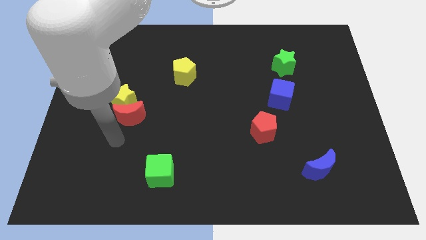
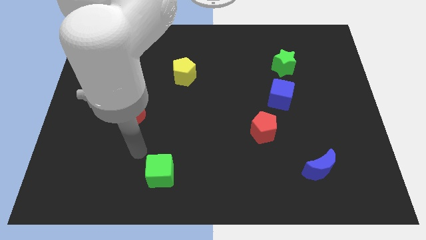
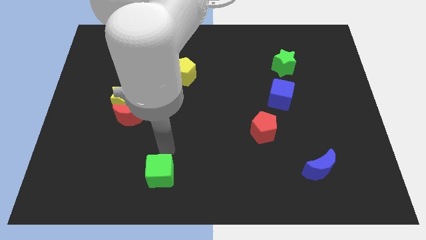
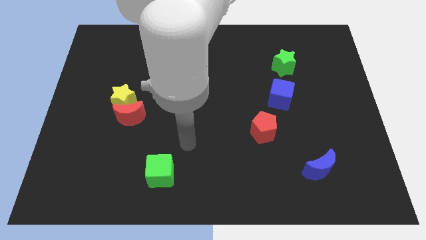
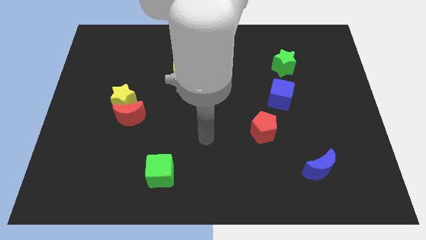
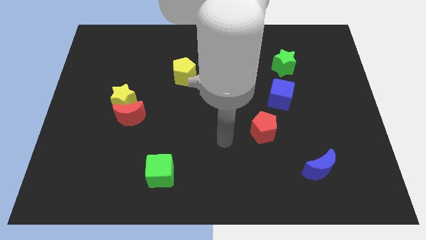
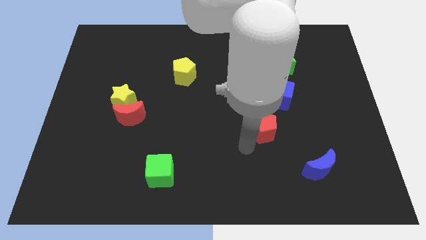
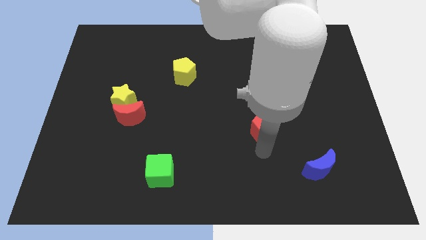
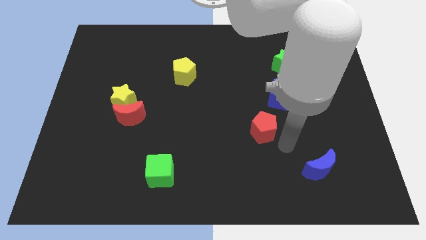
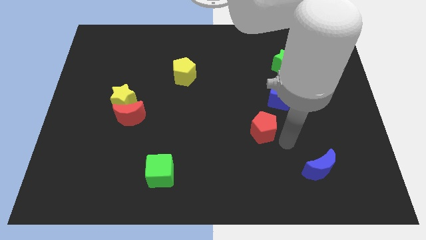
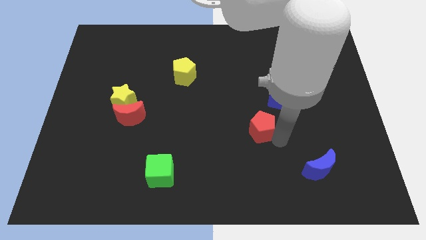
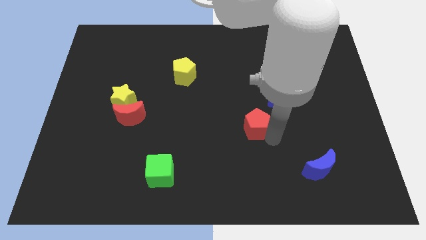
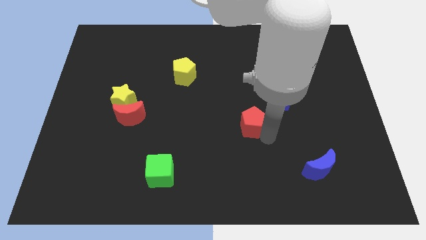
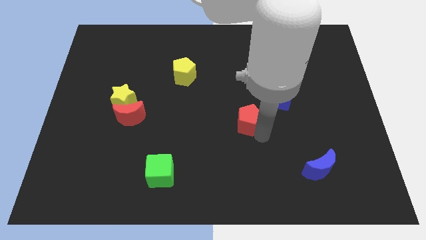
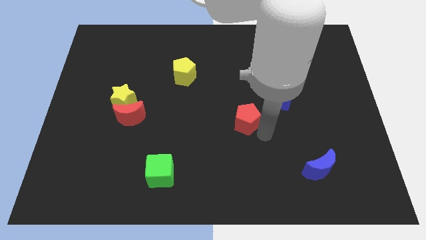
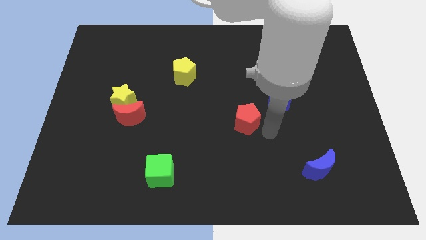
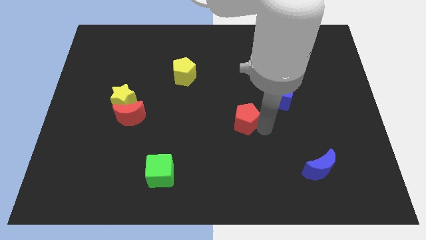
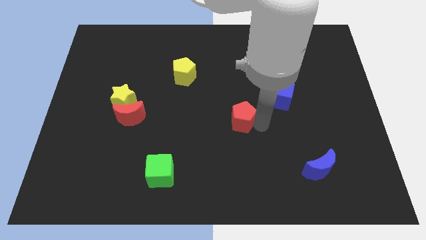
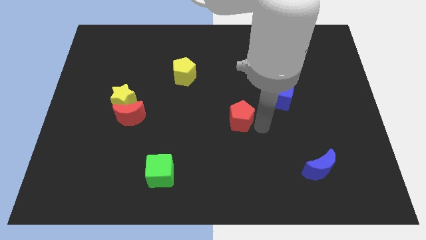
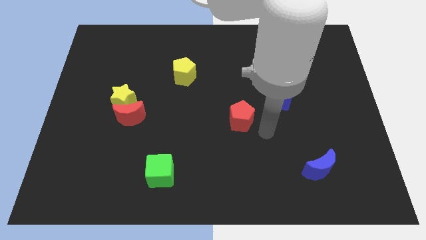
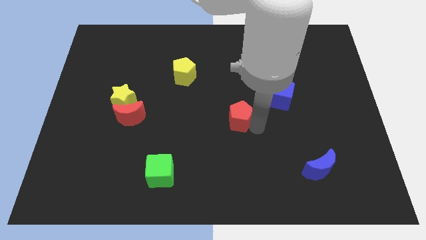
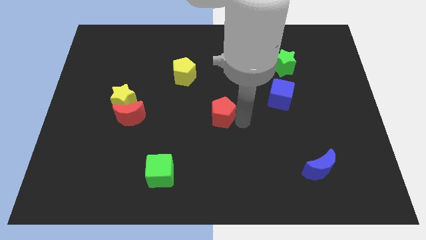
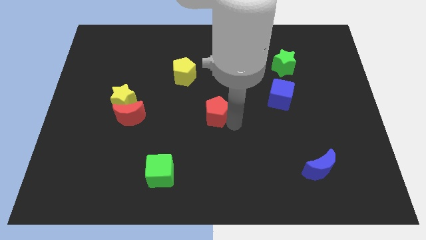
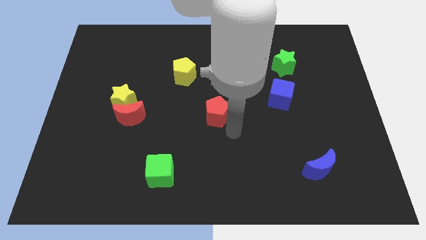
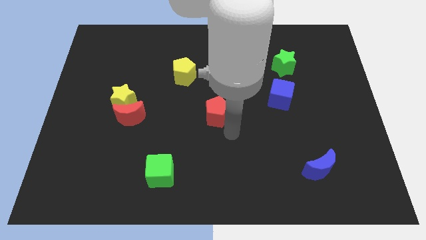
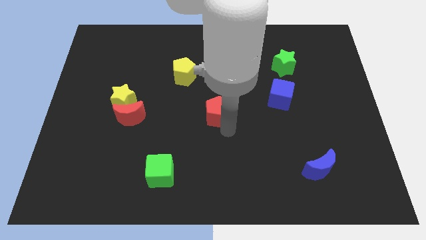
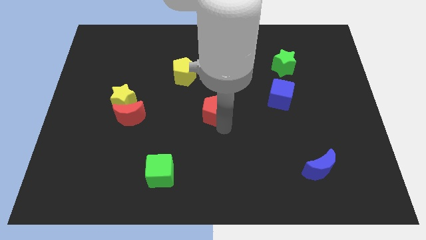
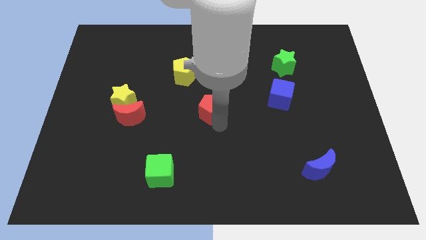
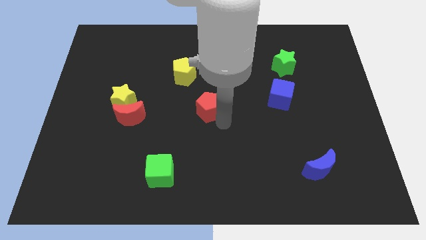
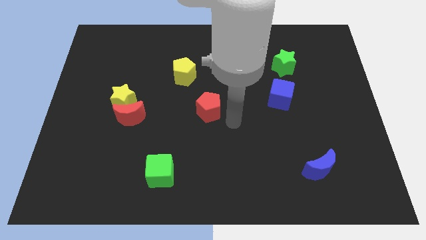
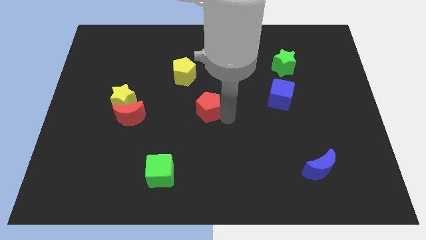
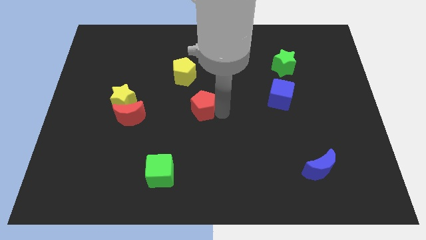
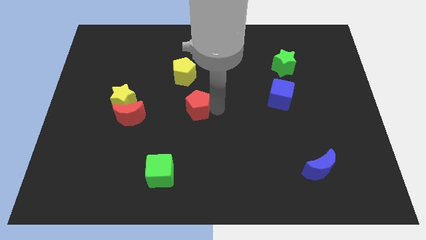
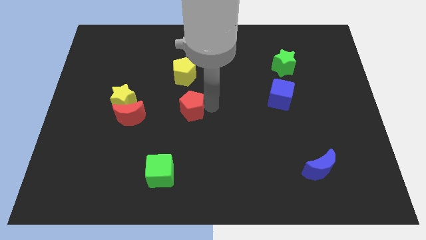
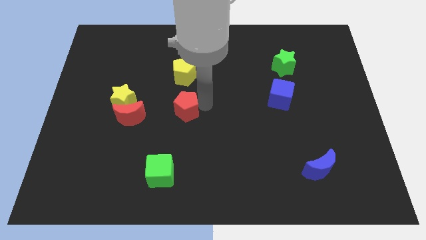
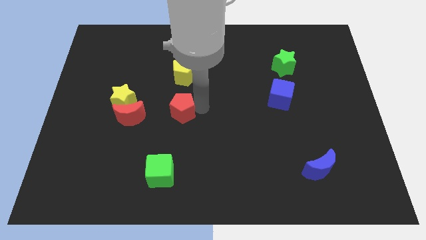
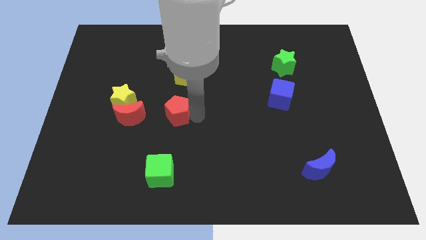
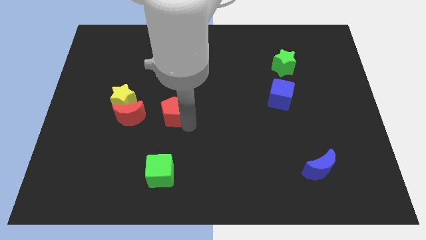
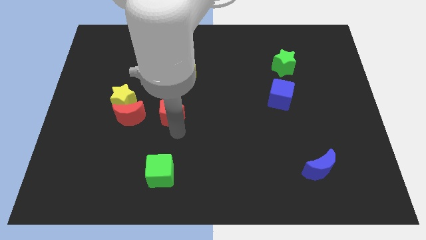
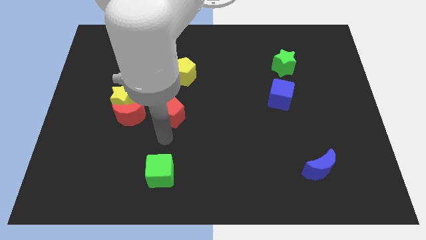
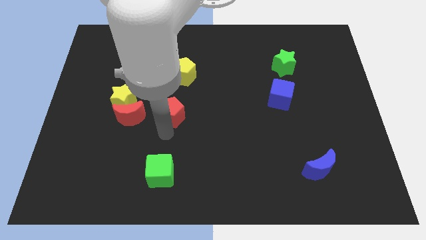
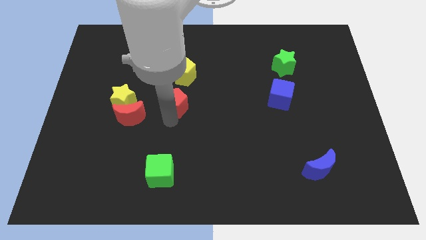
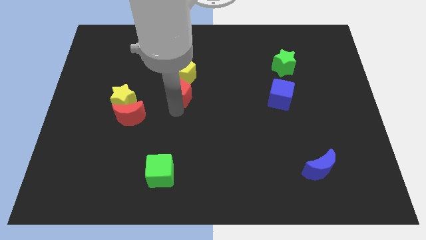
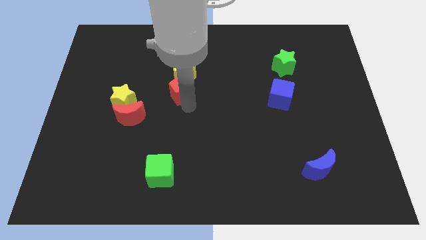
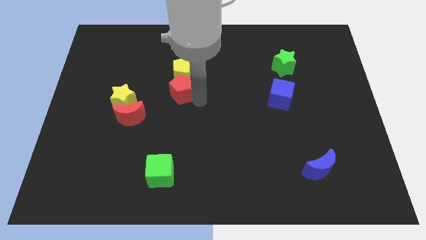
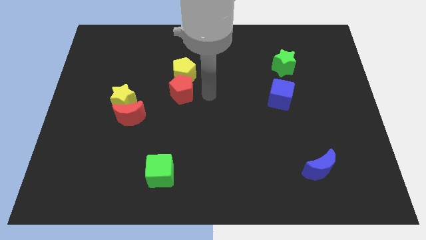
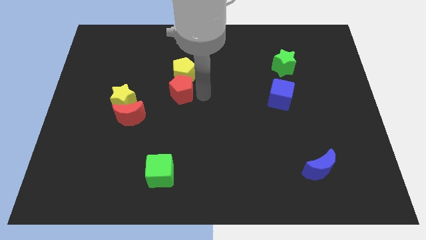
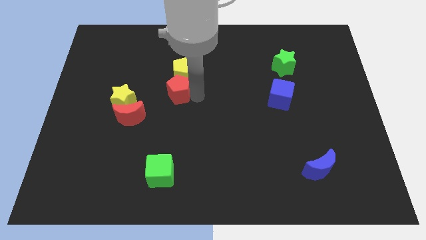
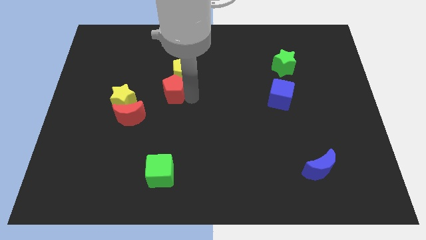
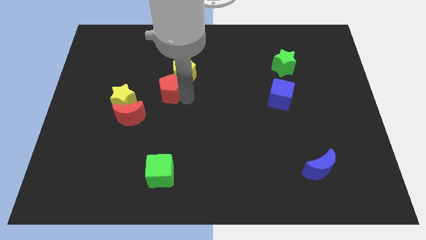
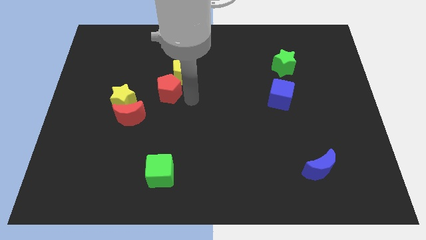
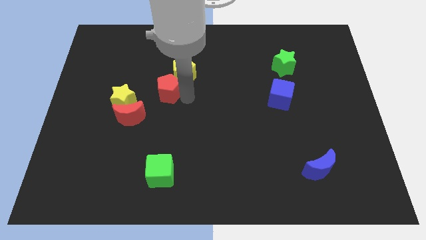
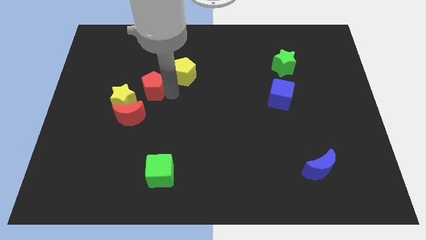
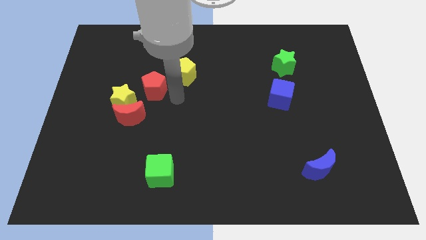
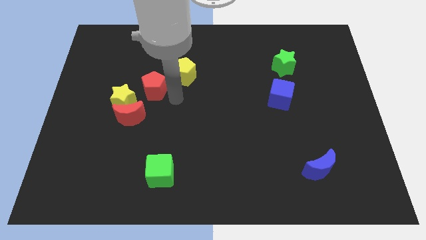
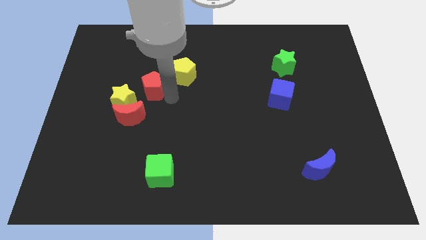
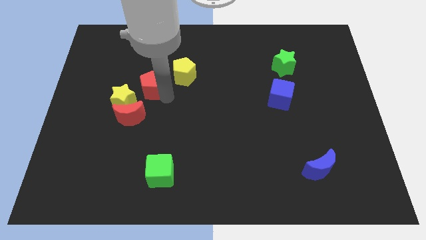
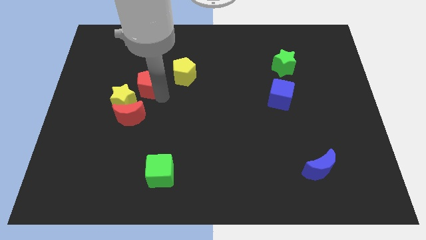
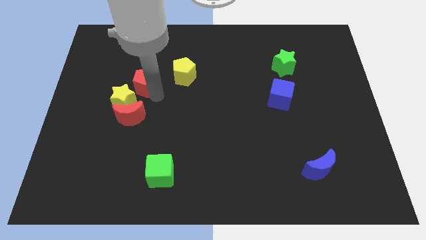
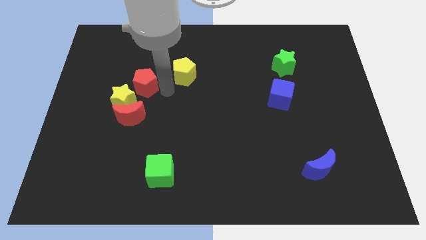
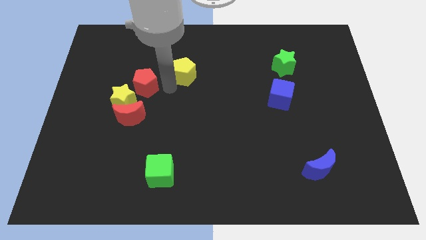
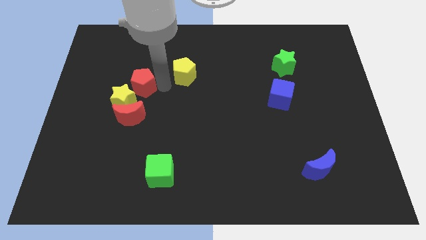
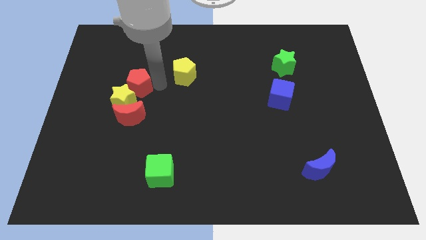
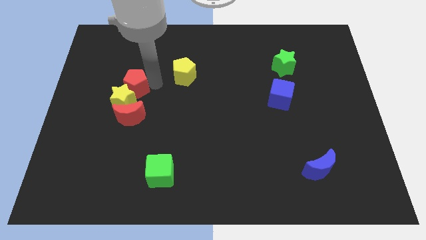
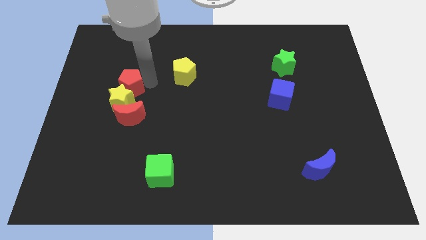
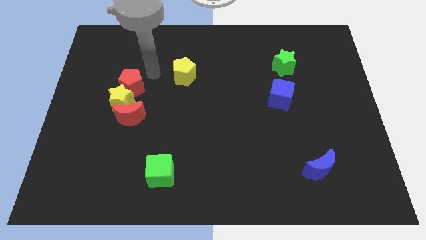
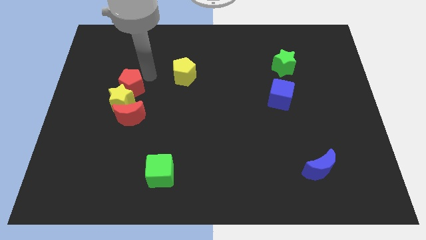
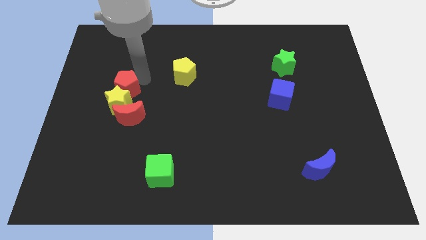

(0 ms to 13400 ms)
move the red pentagon to the top left of the red moon

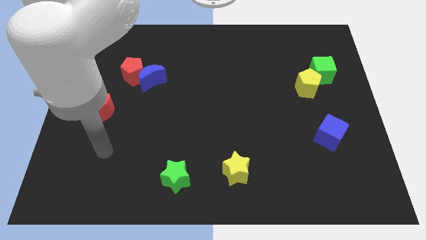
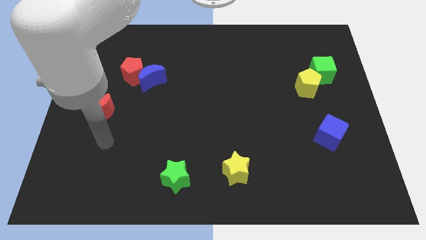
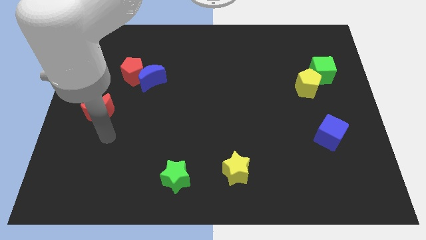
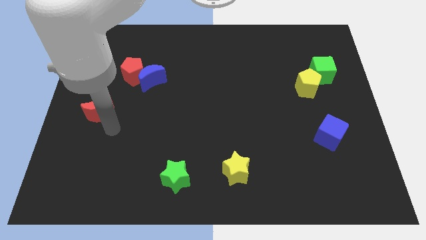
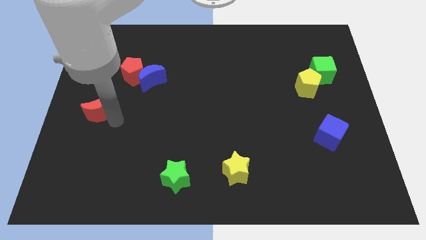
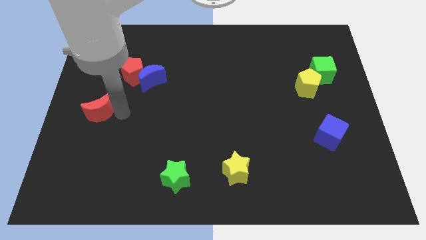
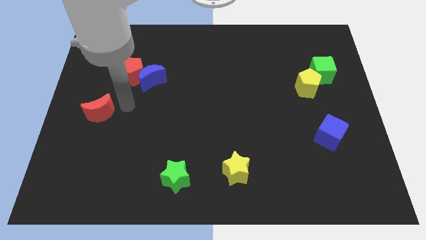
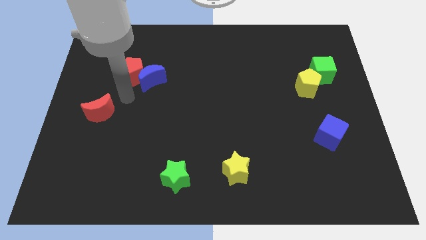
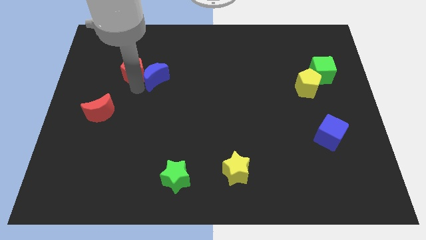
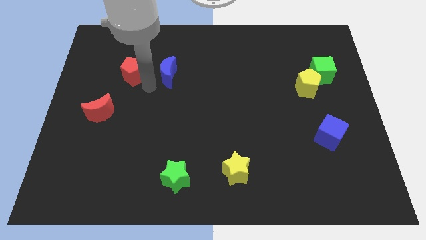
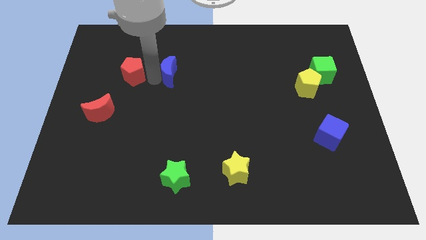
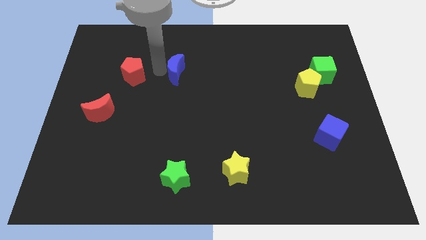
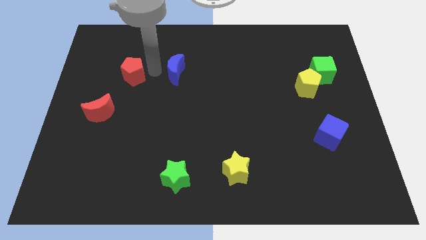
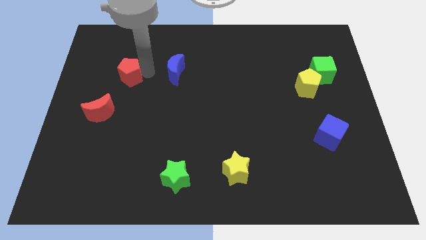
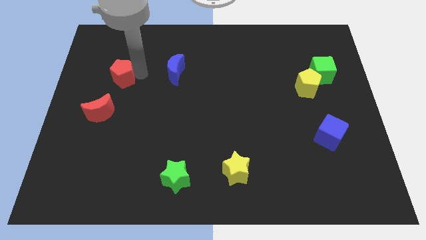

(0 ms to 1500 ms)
slide the red pentagon to the top of the red moon
